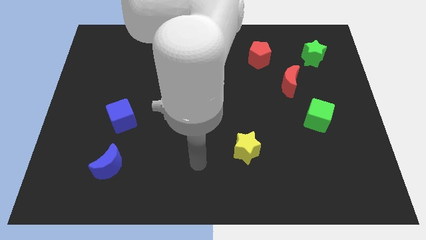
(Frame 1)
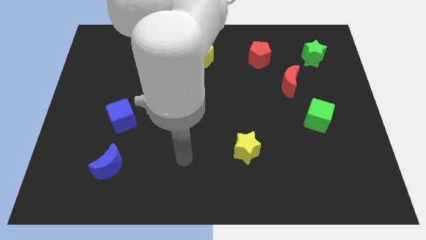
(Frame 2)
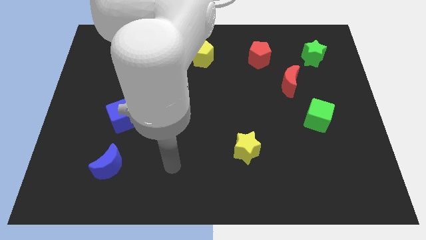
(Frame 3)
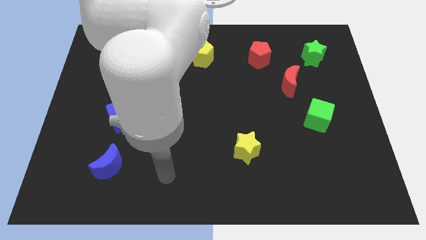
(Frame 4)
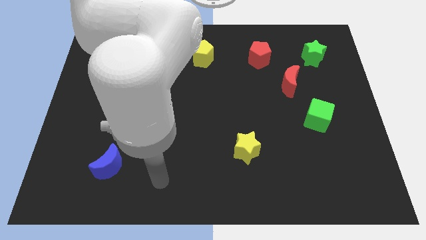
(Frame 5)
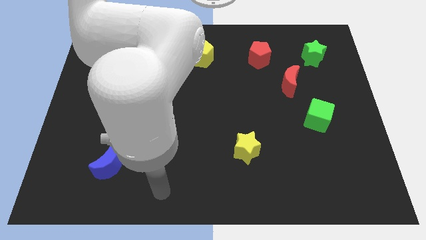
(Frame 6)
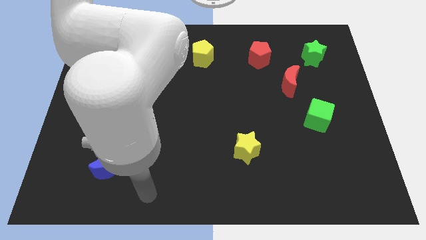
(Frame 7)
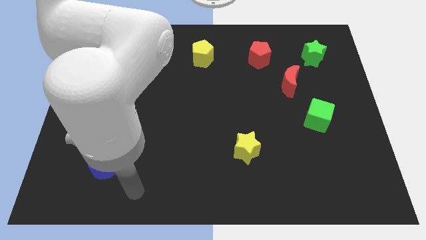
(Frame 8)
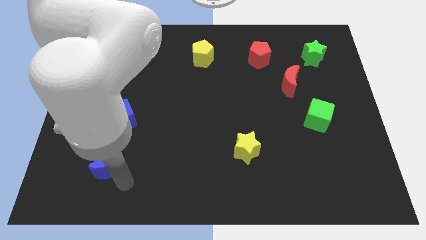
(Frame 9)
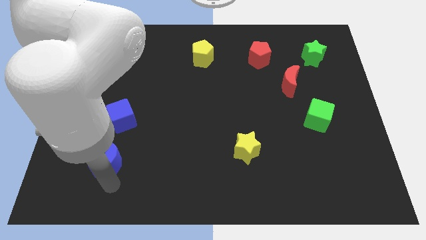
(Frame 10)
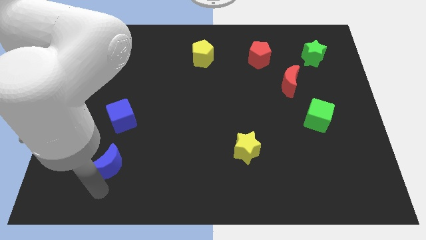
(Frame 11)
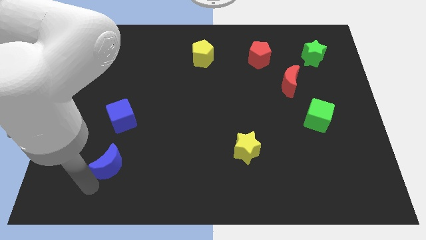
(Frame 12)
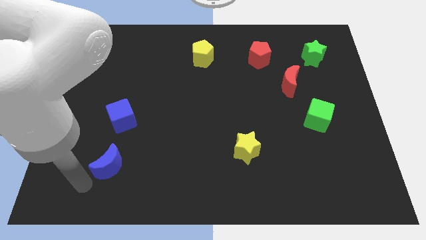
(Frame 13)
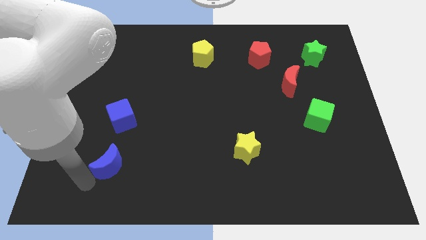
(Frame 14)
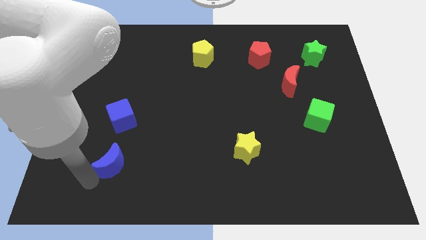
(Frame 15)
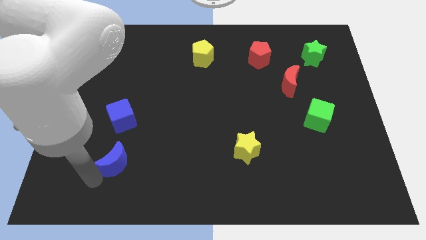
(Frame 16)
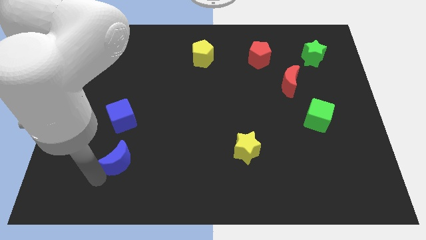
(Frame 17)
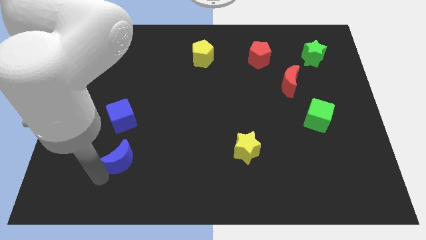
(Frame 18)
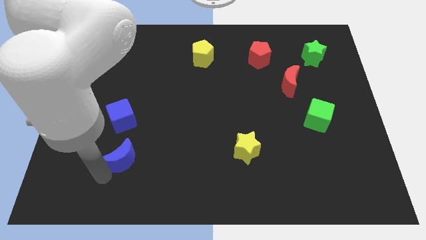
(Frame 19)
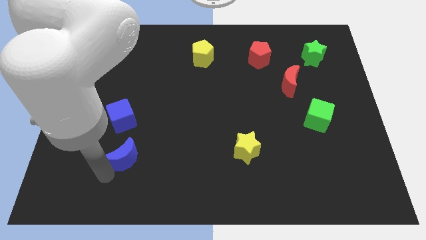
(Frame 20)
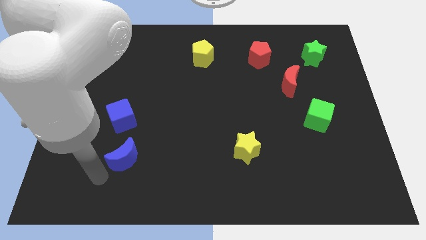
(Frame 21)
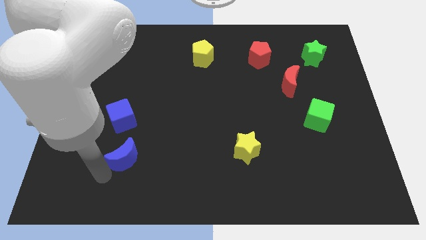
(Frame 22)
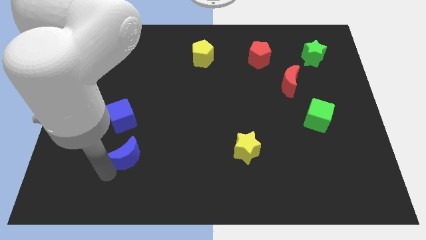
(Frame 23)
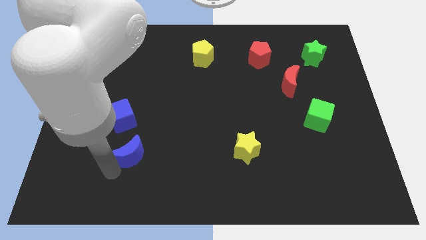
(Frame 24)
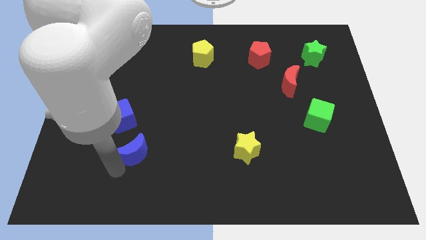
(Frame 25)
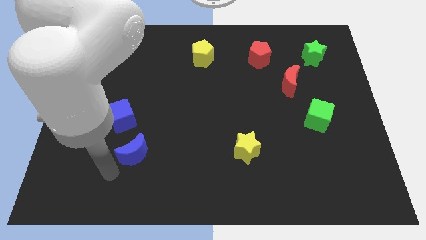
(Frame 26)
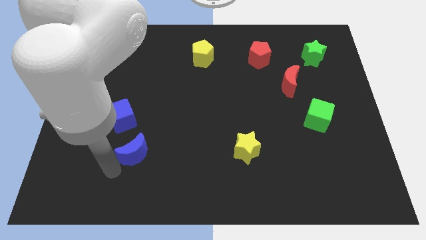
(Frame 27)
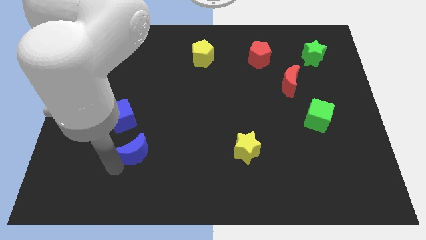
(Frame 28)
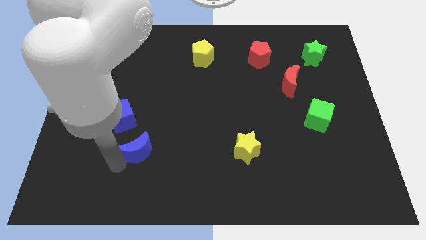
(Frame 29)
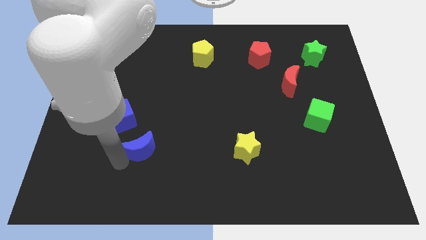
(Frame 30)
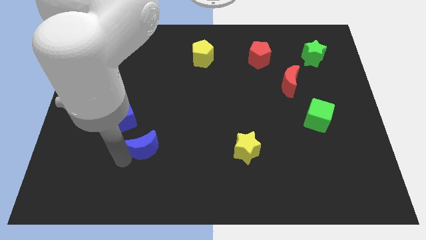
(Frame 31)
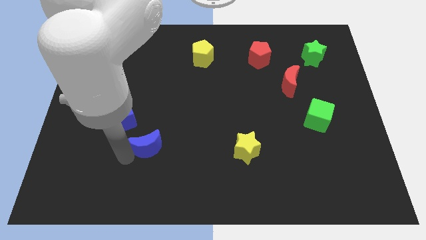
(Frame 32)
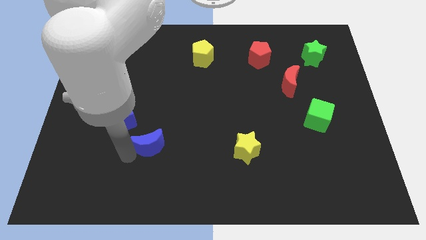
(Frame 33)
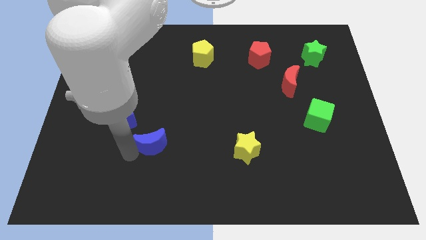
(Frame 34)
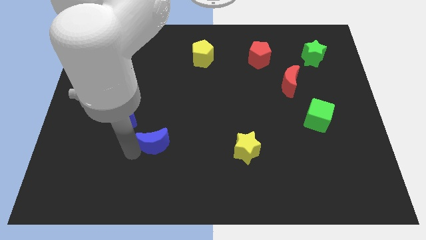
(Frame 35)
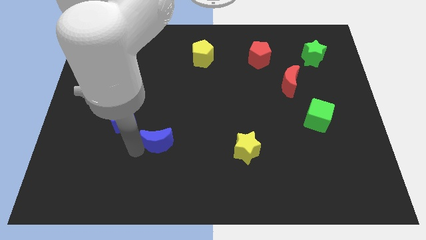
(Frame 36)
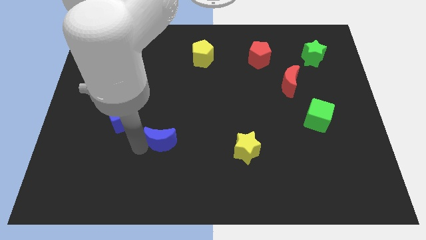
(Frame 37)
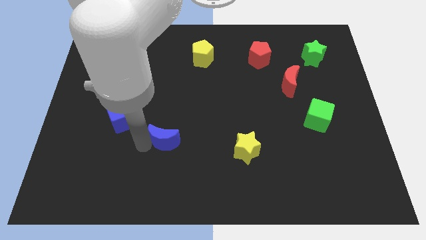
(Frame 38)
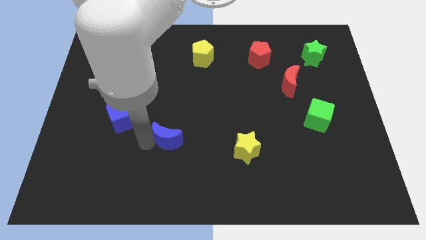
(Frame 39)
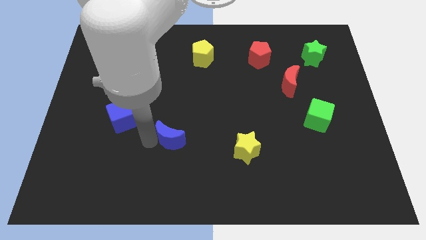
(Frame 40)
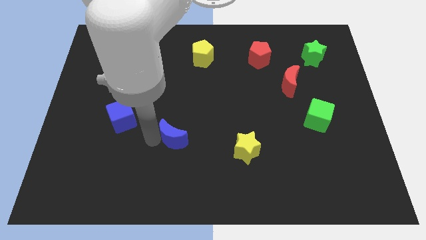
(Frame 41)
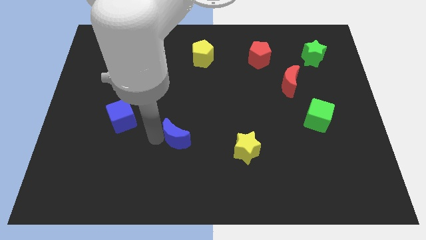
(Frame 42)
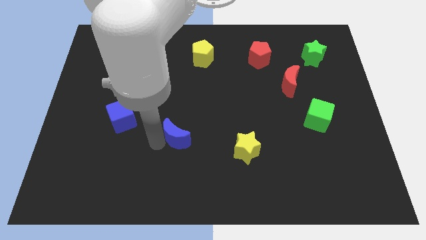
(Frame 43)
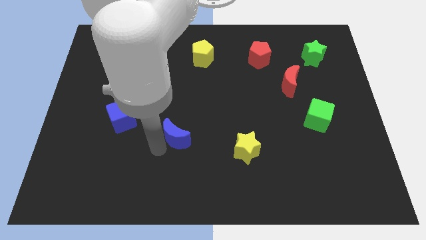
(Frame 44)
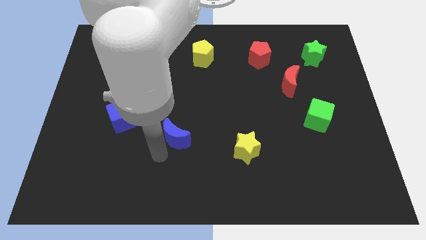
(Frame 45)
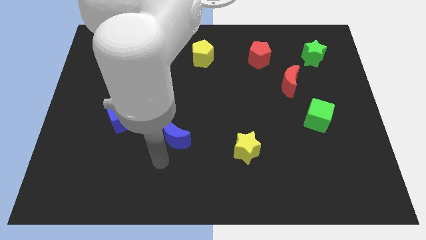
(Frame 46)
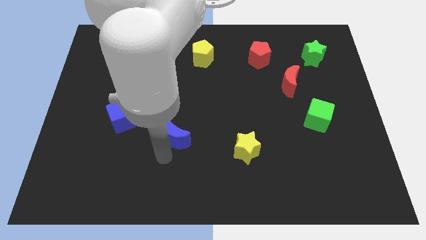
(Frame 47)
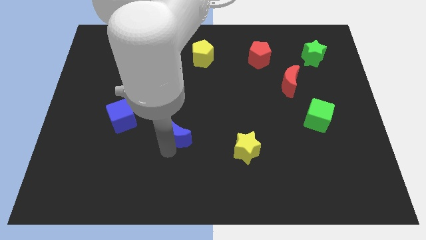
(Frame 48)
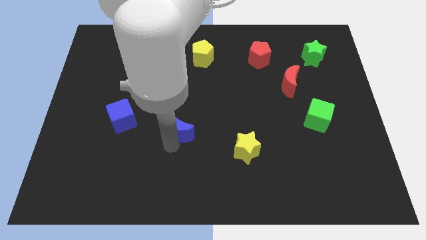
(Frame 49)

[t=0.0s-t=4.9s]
slide the blue moon to the center

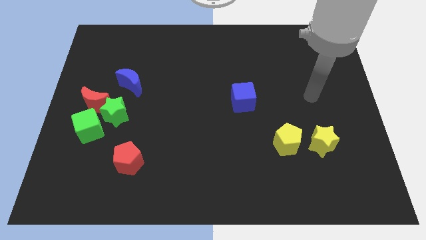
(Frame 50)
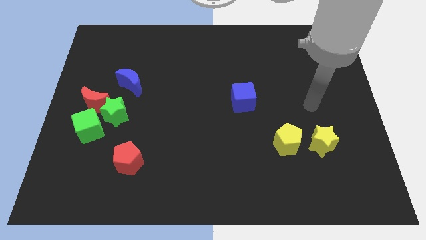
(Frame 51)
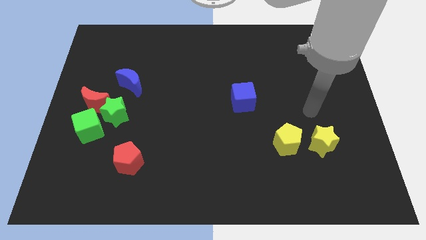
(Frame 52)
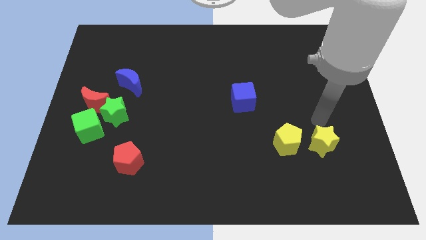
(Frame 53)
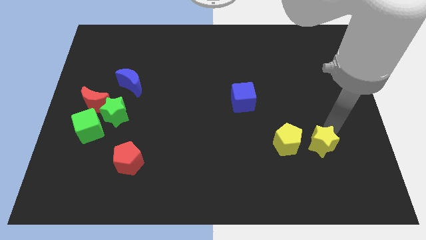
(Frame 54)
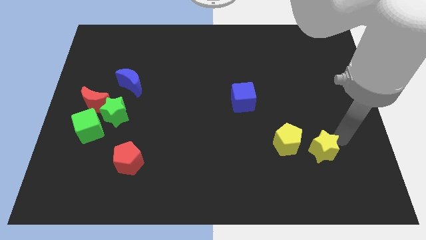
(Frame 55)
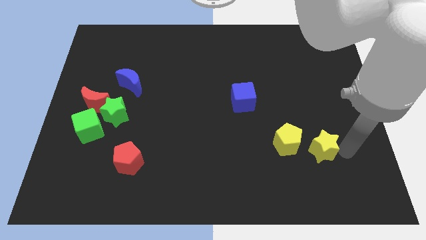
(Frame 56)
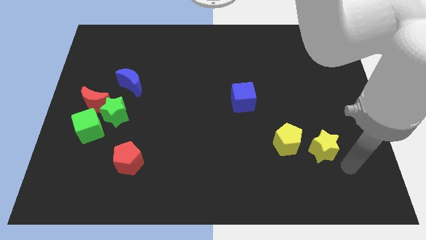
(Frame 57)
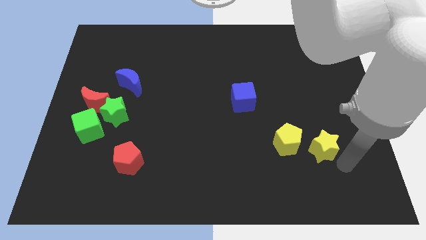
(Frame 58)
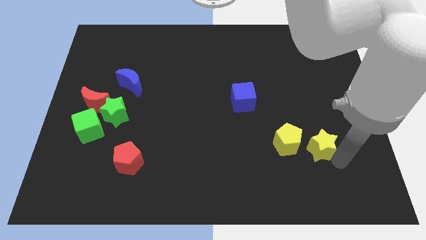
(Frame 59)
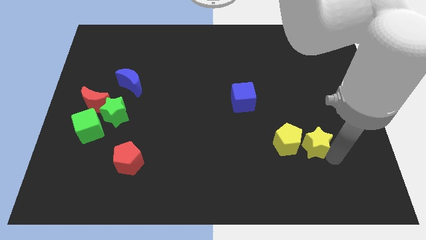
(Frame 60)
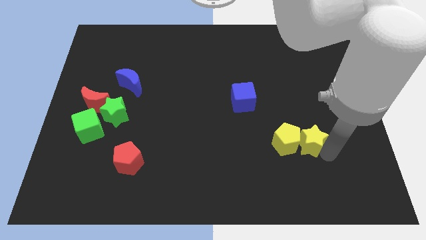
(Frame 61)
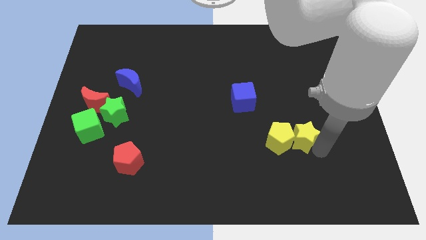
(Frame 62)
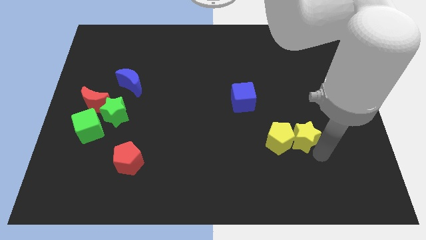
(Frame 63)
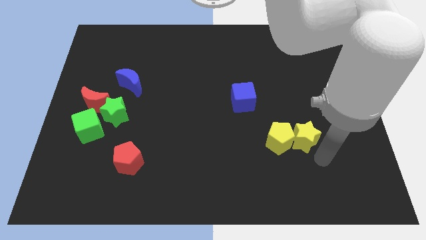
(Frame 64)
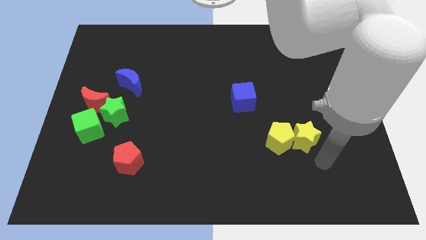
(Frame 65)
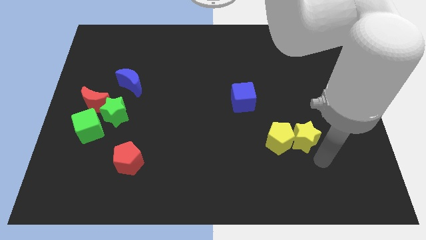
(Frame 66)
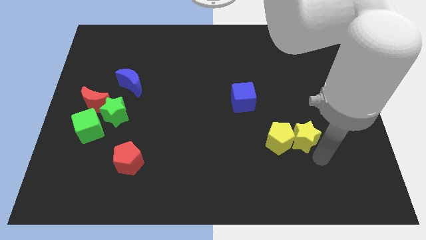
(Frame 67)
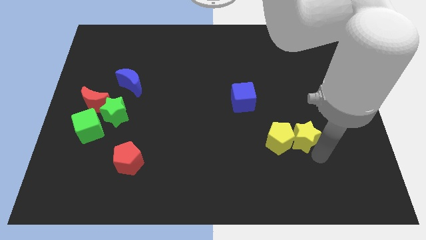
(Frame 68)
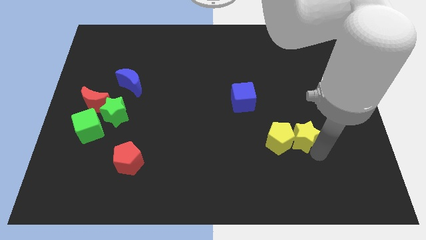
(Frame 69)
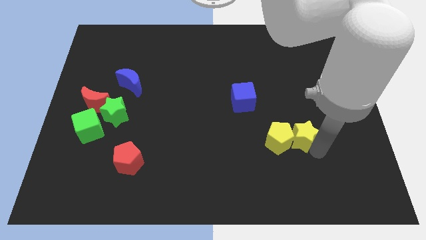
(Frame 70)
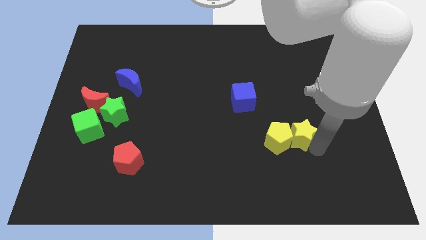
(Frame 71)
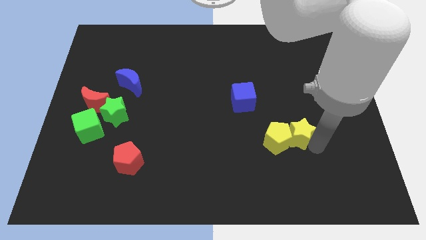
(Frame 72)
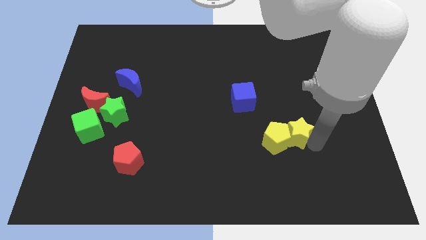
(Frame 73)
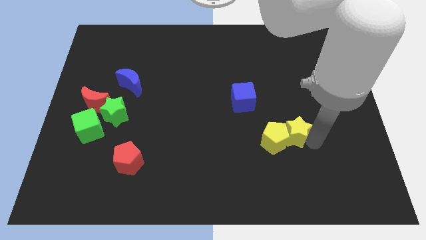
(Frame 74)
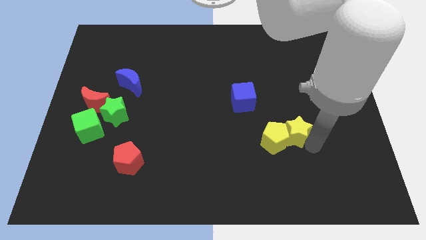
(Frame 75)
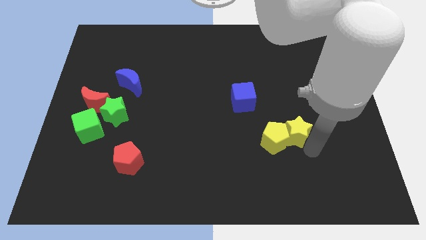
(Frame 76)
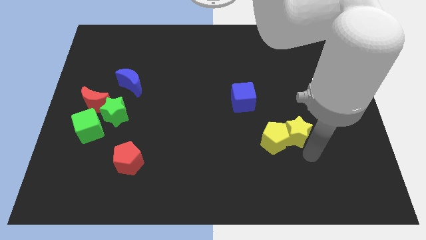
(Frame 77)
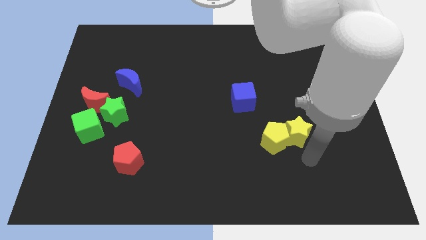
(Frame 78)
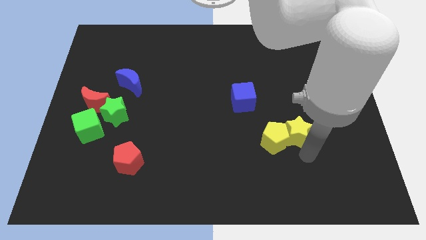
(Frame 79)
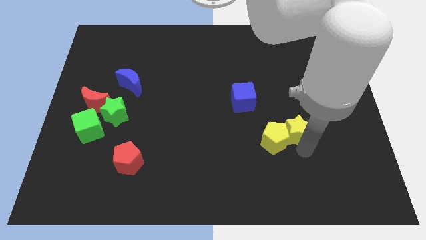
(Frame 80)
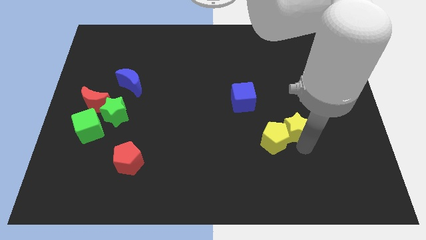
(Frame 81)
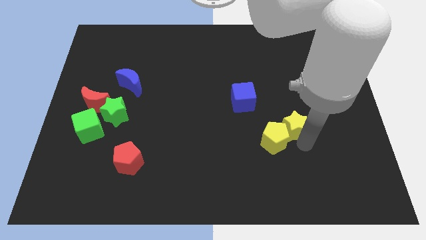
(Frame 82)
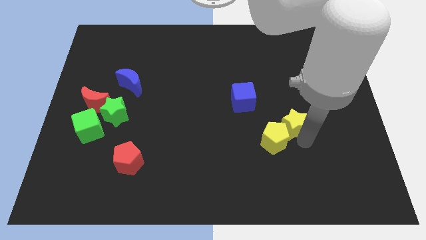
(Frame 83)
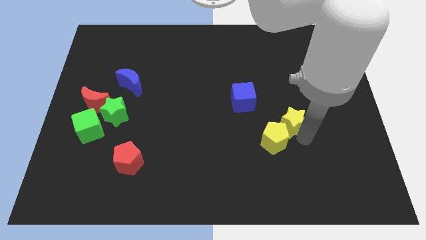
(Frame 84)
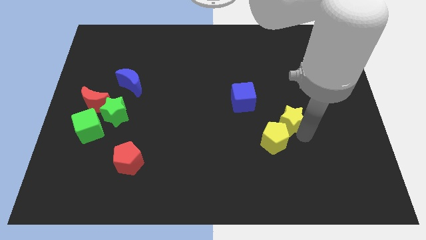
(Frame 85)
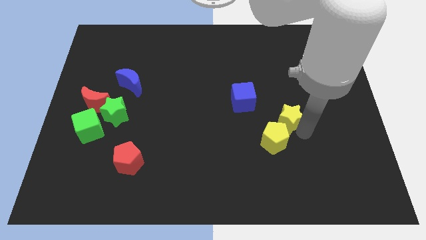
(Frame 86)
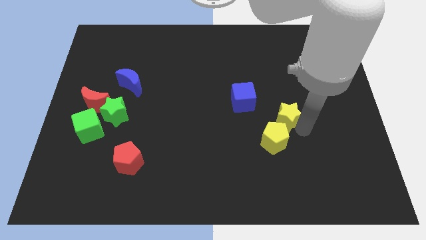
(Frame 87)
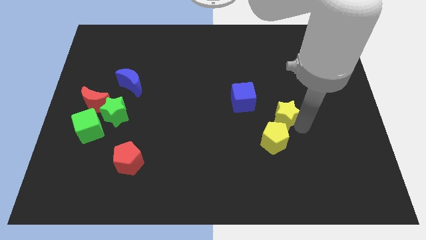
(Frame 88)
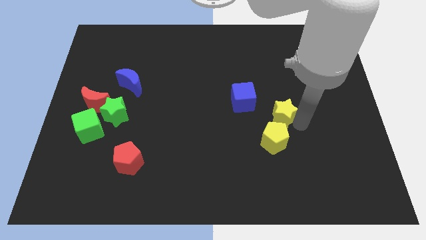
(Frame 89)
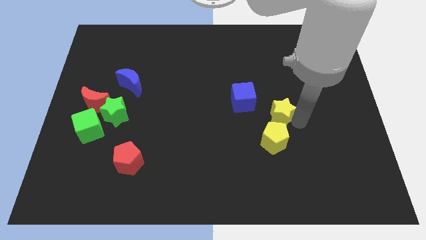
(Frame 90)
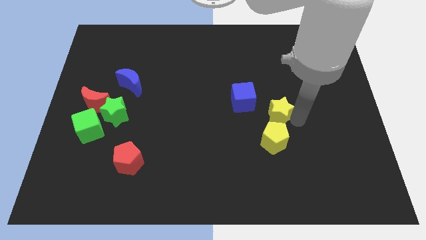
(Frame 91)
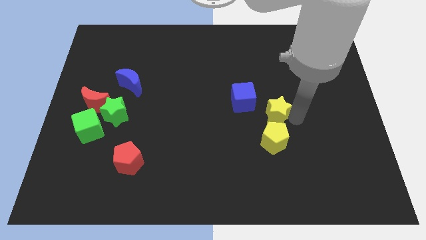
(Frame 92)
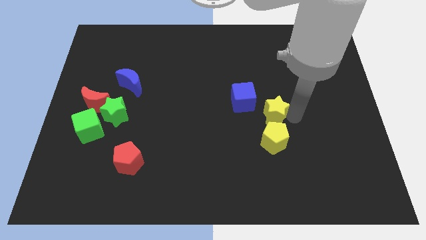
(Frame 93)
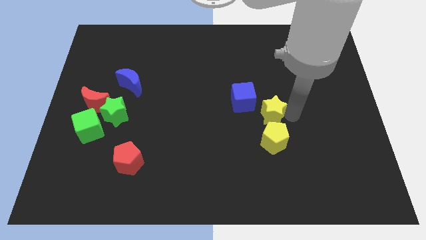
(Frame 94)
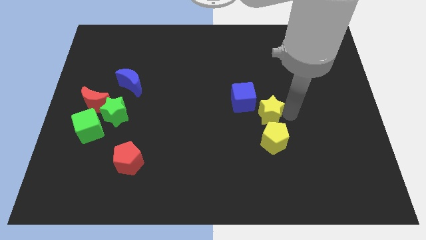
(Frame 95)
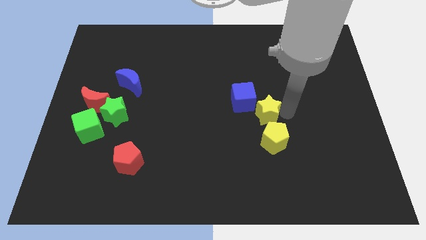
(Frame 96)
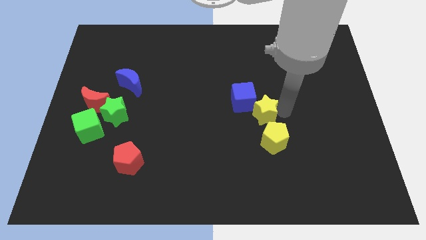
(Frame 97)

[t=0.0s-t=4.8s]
put the yellow star to the middle of the board
